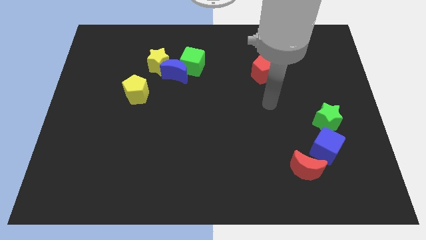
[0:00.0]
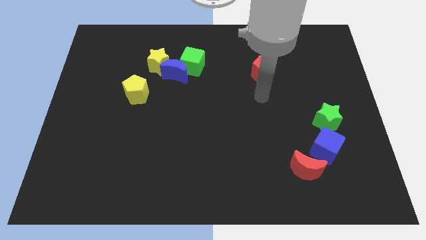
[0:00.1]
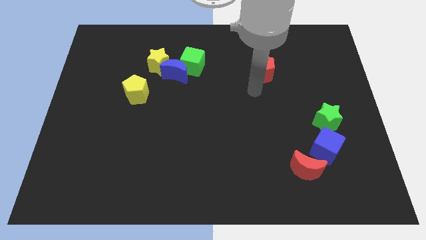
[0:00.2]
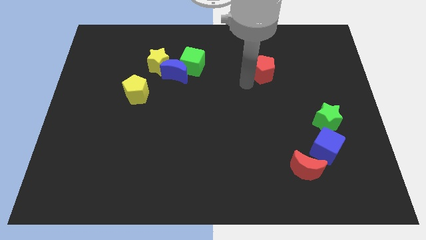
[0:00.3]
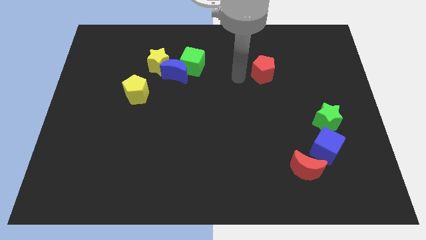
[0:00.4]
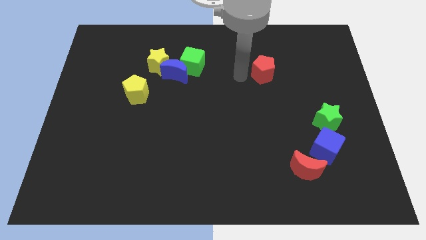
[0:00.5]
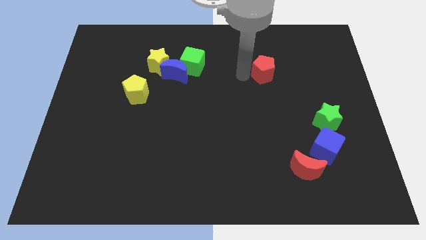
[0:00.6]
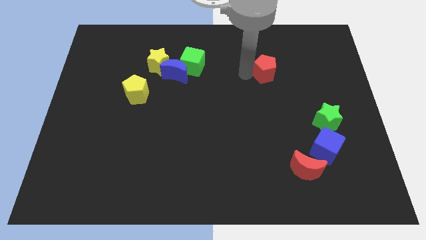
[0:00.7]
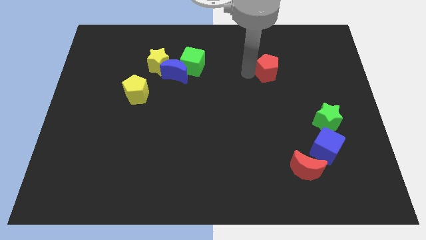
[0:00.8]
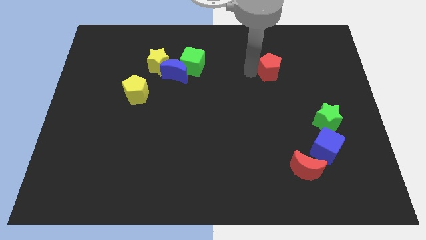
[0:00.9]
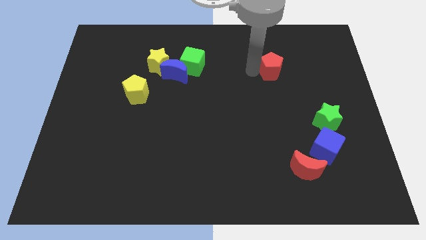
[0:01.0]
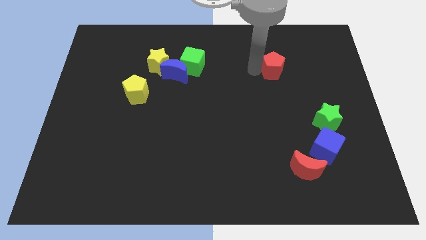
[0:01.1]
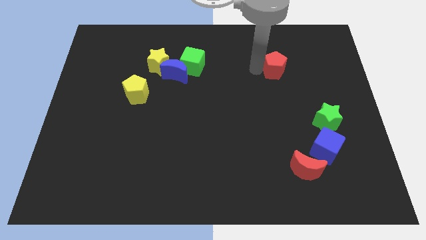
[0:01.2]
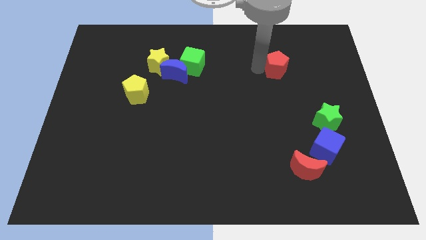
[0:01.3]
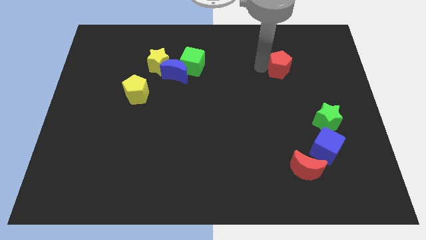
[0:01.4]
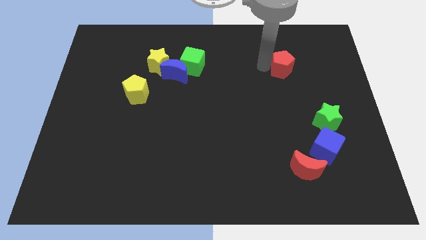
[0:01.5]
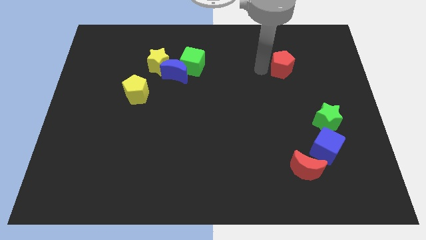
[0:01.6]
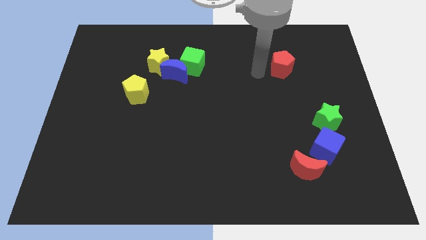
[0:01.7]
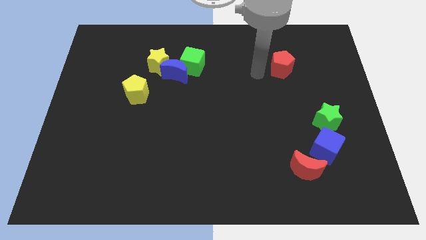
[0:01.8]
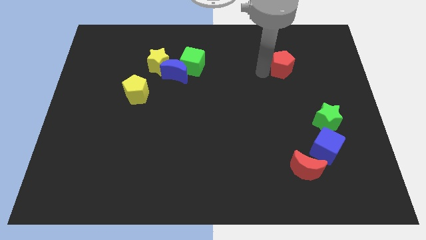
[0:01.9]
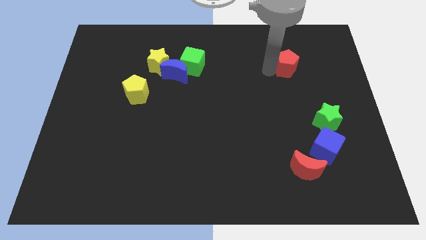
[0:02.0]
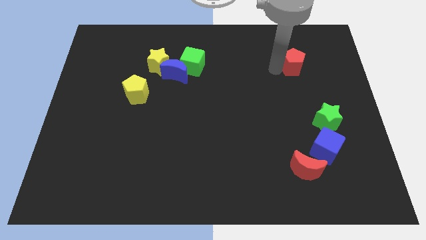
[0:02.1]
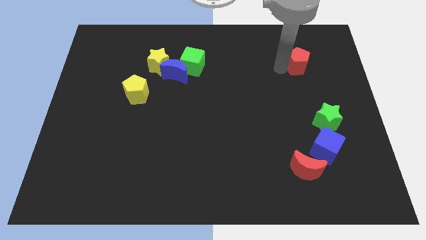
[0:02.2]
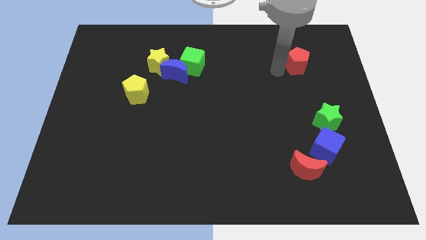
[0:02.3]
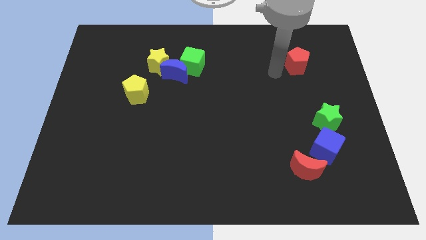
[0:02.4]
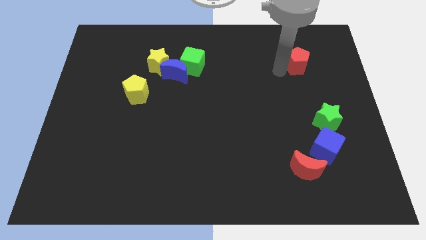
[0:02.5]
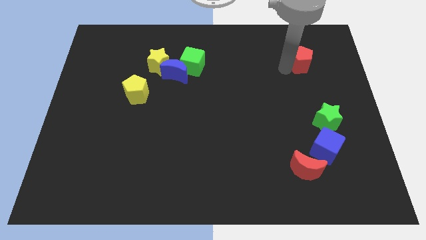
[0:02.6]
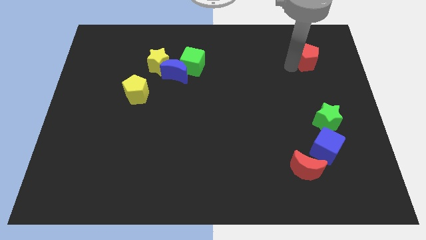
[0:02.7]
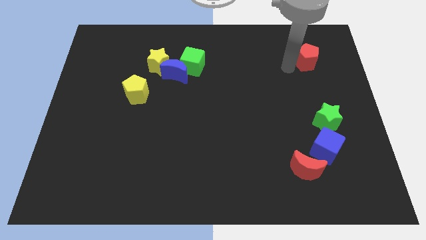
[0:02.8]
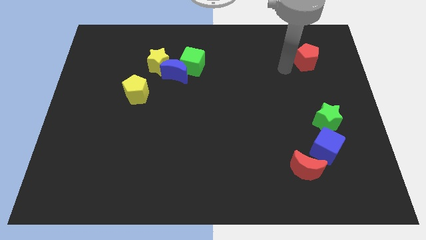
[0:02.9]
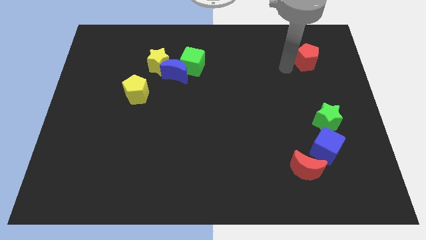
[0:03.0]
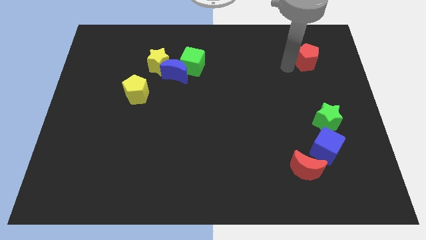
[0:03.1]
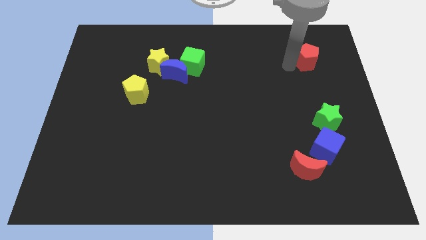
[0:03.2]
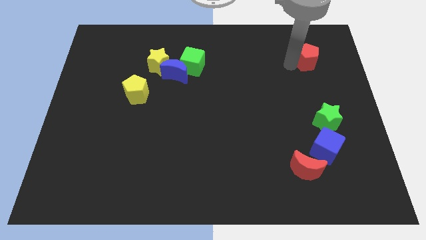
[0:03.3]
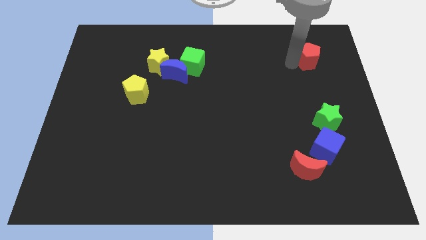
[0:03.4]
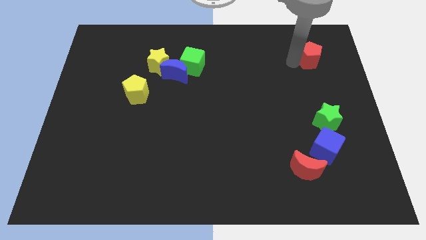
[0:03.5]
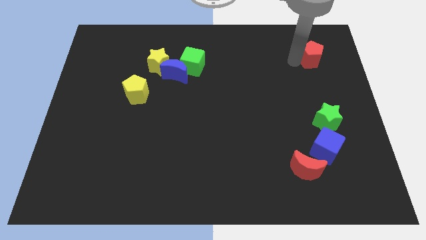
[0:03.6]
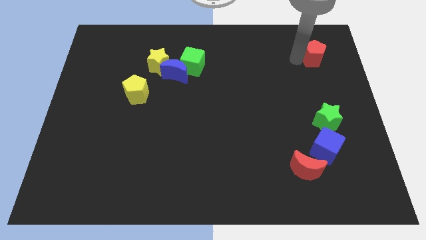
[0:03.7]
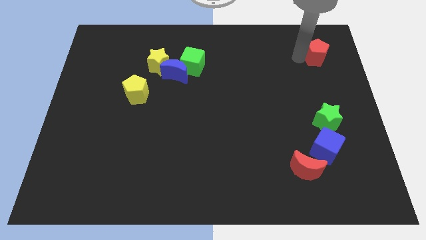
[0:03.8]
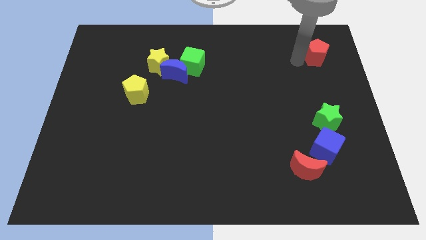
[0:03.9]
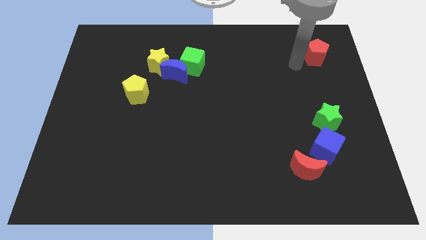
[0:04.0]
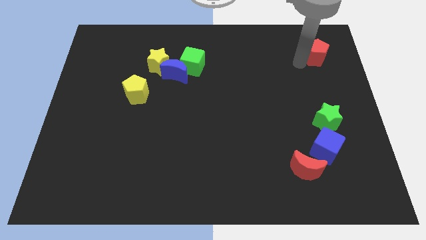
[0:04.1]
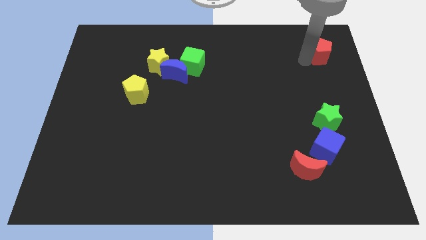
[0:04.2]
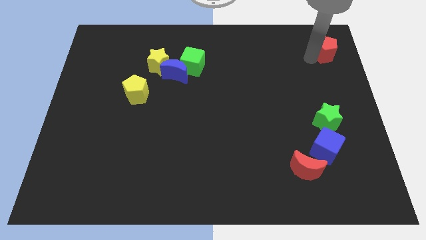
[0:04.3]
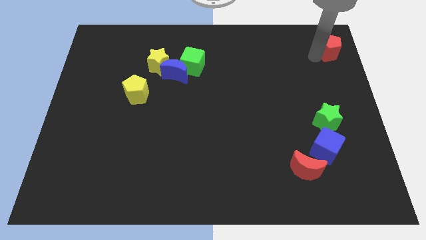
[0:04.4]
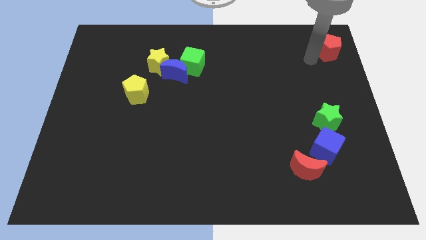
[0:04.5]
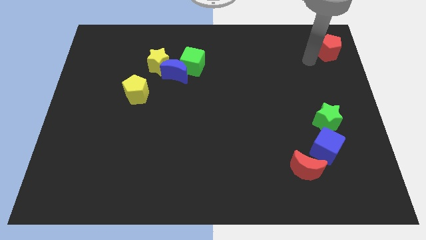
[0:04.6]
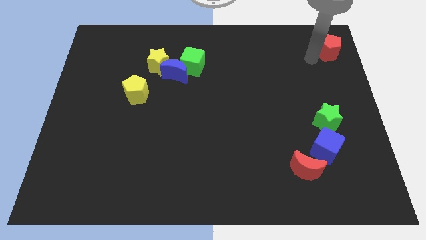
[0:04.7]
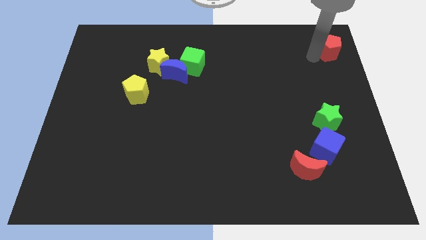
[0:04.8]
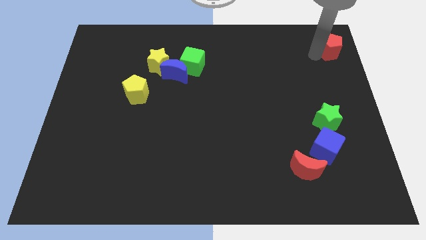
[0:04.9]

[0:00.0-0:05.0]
slide the red pentagon to the top right
